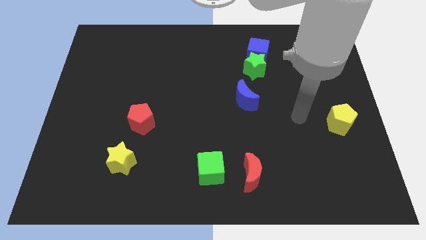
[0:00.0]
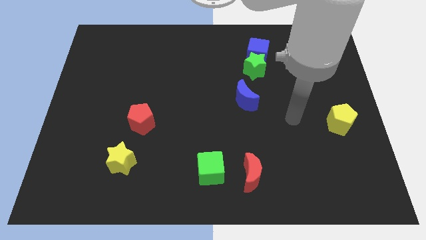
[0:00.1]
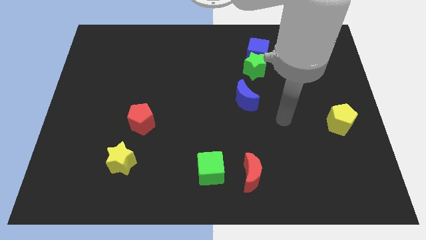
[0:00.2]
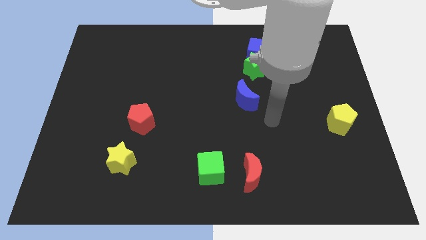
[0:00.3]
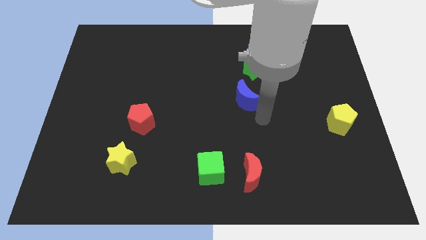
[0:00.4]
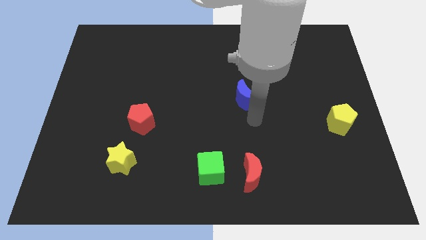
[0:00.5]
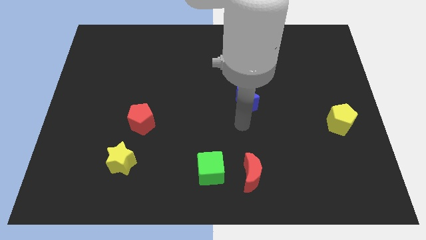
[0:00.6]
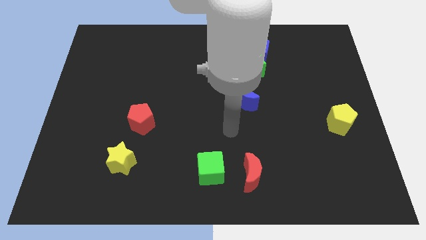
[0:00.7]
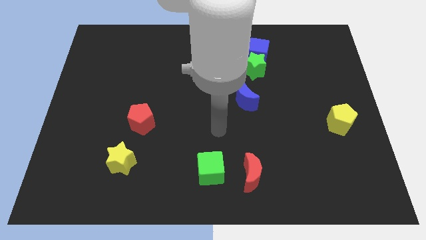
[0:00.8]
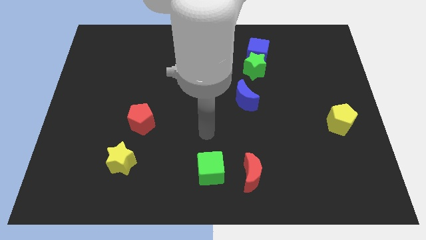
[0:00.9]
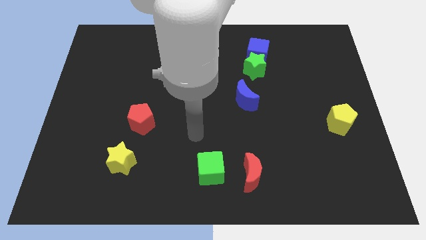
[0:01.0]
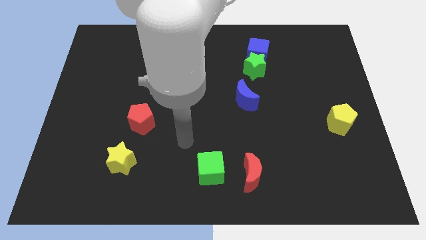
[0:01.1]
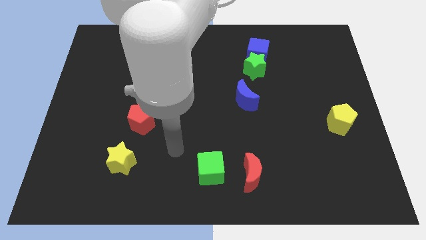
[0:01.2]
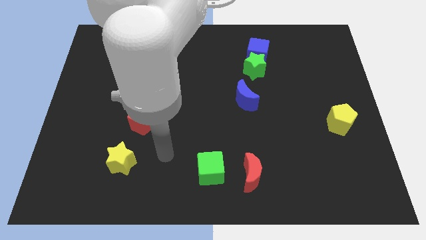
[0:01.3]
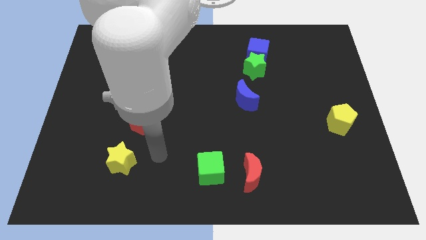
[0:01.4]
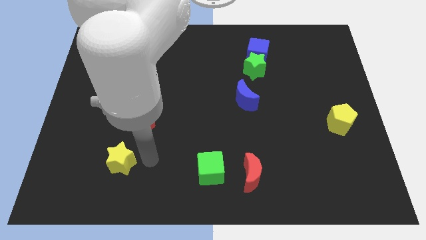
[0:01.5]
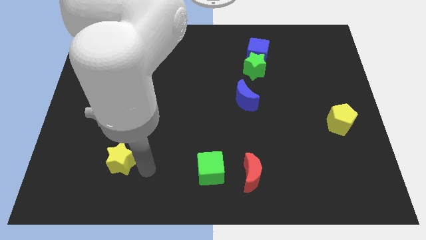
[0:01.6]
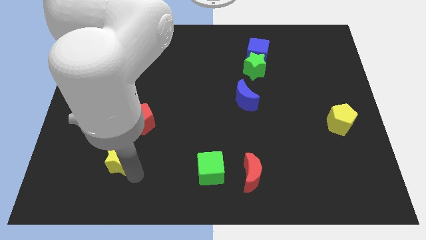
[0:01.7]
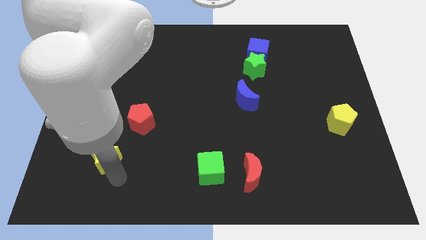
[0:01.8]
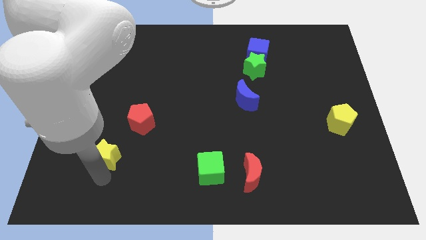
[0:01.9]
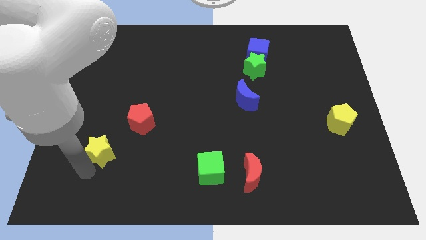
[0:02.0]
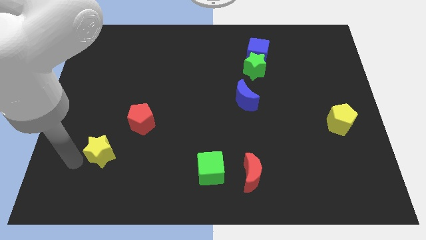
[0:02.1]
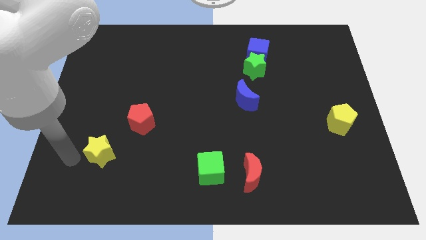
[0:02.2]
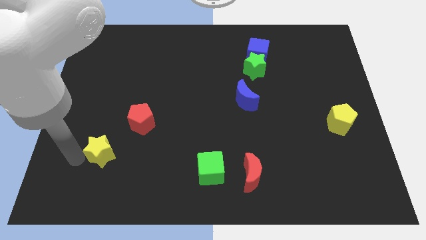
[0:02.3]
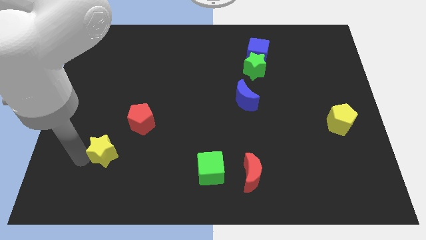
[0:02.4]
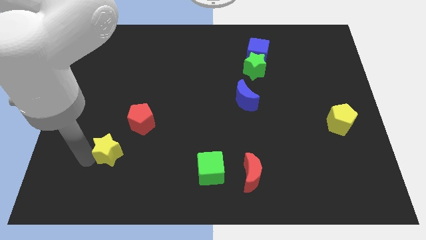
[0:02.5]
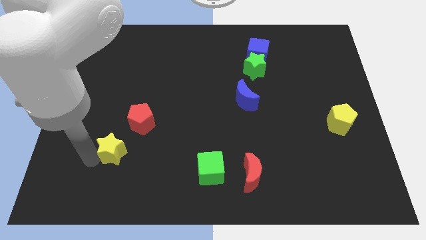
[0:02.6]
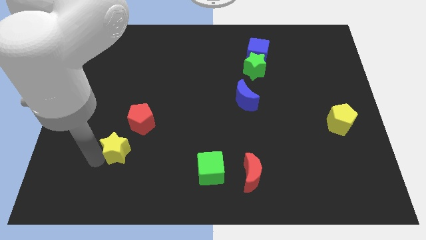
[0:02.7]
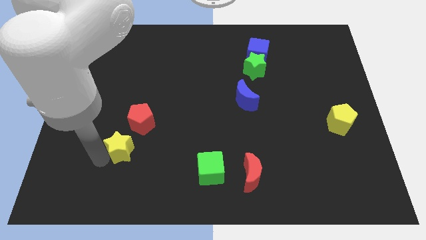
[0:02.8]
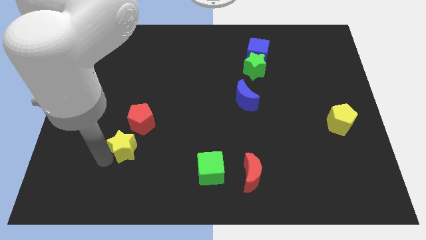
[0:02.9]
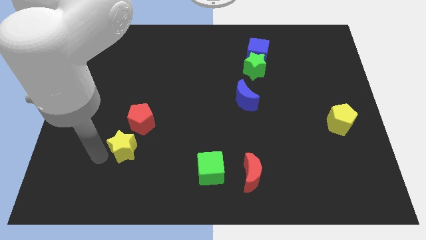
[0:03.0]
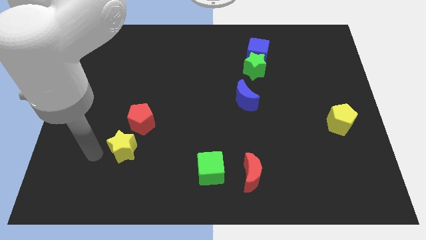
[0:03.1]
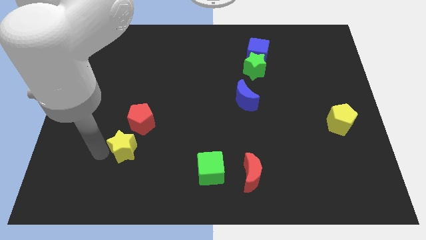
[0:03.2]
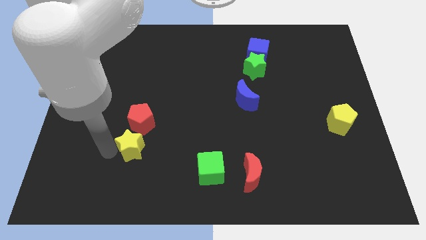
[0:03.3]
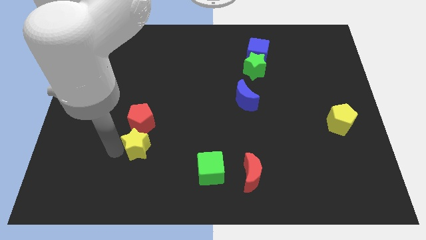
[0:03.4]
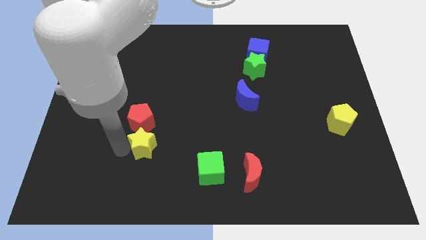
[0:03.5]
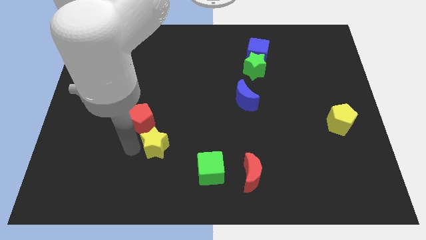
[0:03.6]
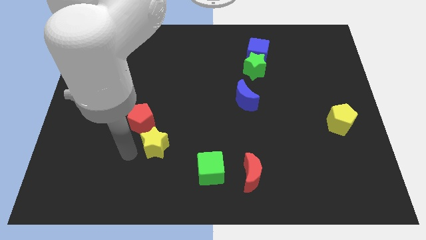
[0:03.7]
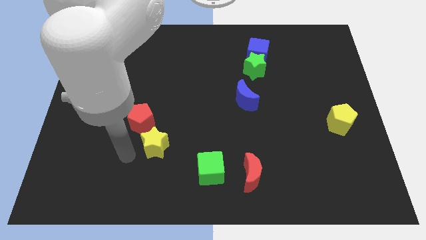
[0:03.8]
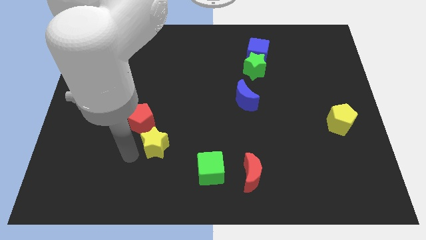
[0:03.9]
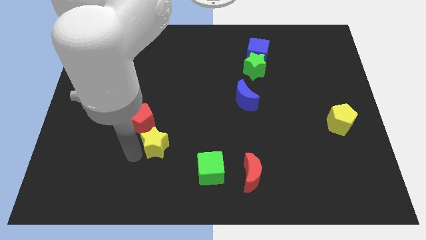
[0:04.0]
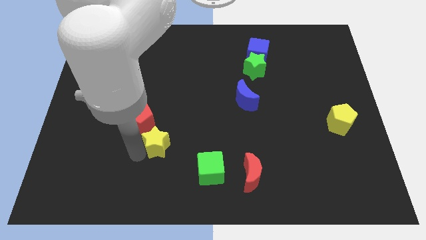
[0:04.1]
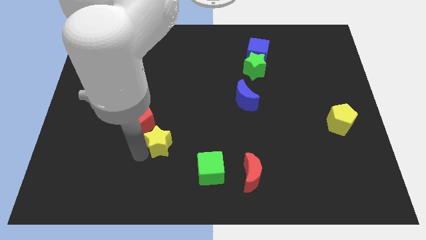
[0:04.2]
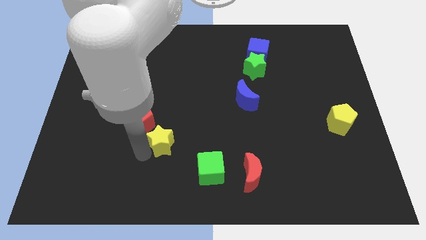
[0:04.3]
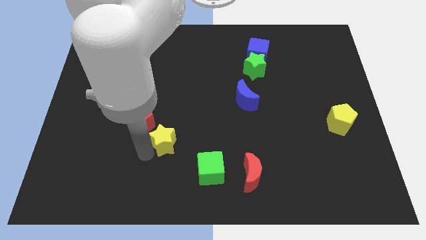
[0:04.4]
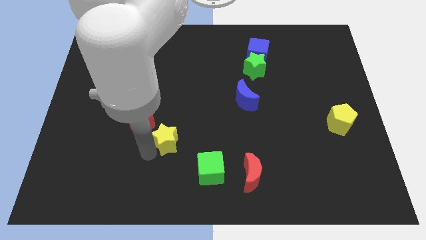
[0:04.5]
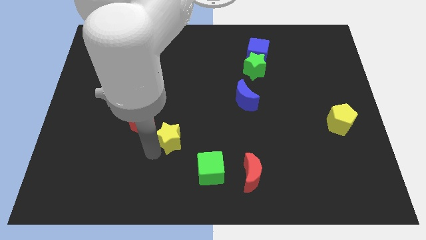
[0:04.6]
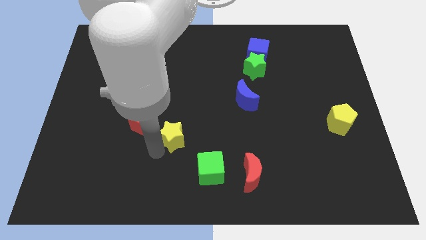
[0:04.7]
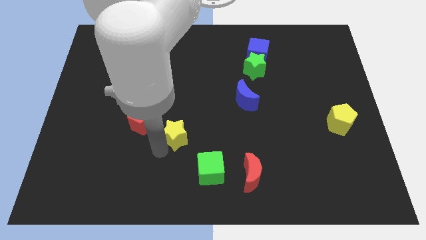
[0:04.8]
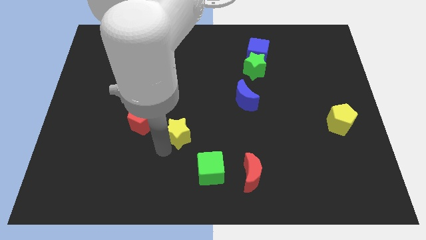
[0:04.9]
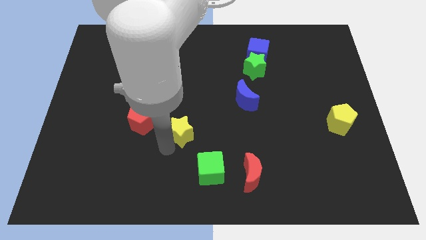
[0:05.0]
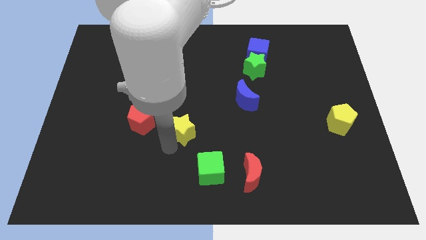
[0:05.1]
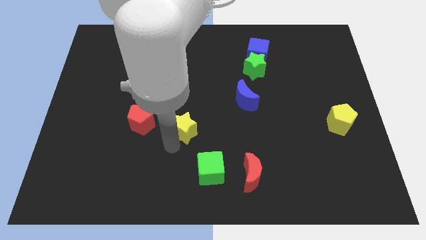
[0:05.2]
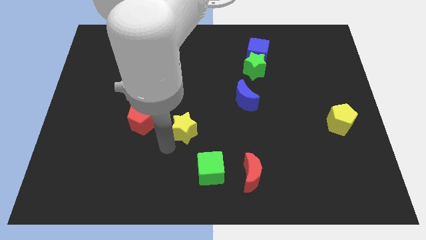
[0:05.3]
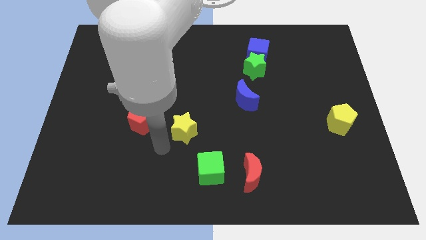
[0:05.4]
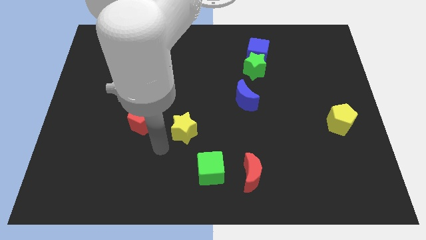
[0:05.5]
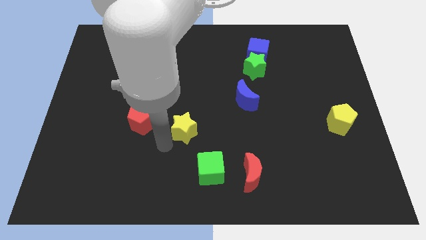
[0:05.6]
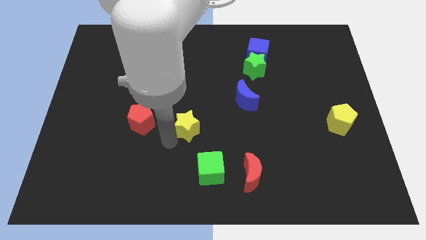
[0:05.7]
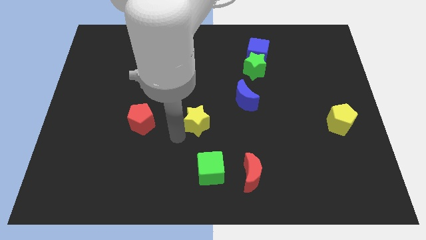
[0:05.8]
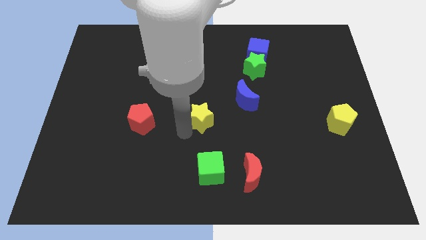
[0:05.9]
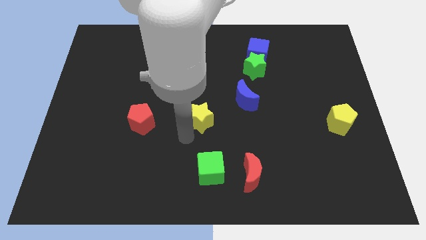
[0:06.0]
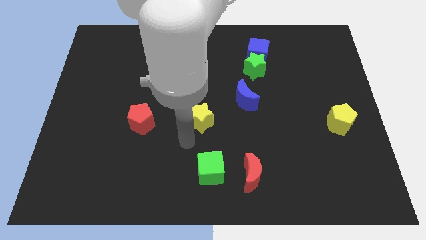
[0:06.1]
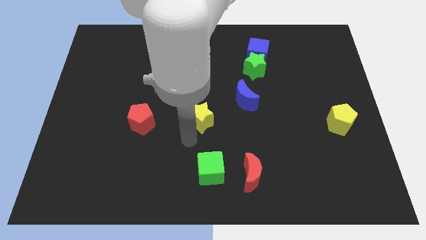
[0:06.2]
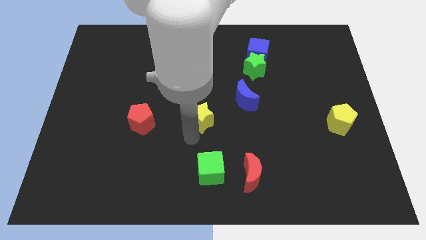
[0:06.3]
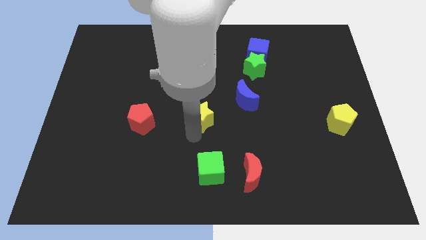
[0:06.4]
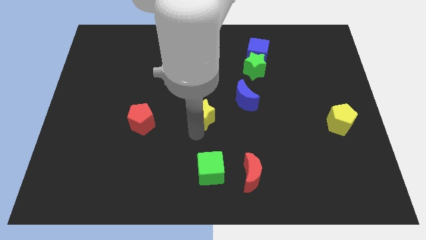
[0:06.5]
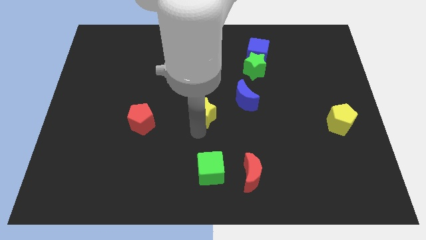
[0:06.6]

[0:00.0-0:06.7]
move the yellow star up and to the right diagonally

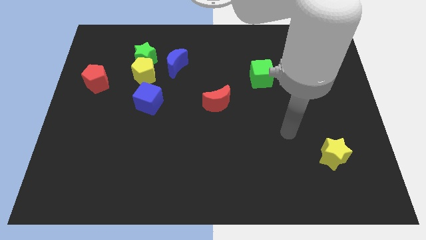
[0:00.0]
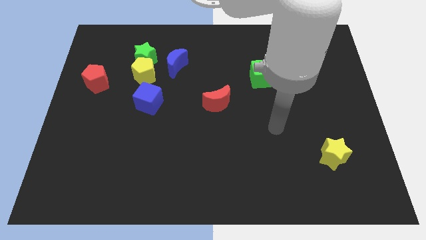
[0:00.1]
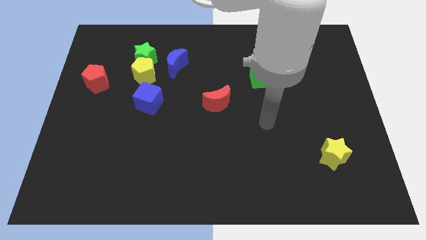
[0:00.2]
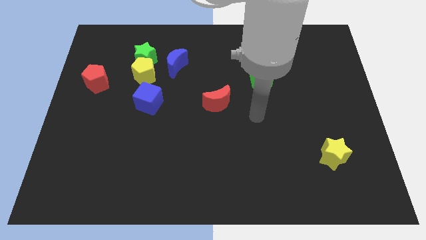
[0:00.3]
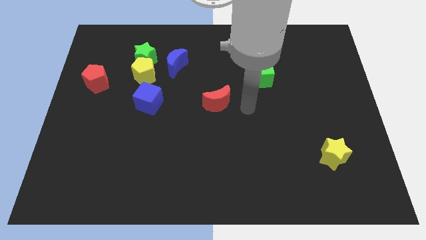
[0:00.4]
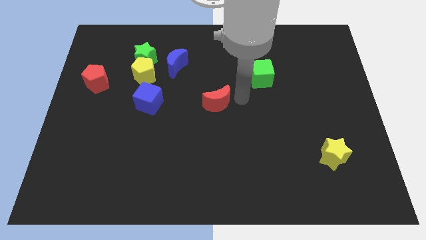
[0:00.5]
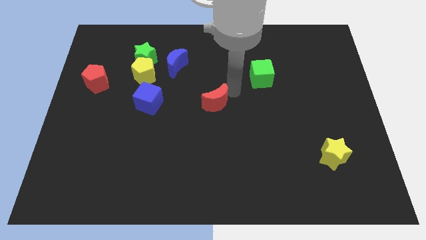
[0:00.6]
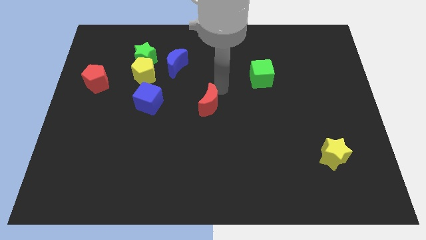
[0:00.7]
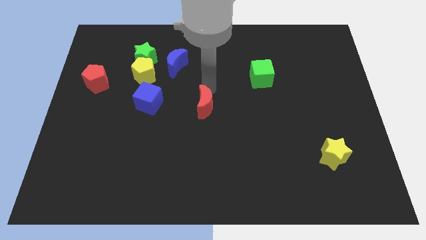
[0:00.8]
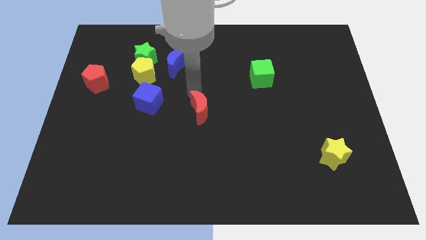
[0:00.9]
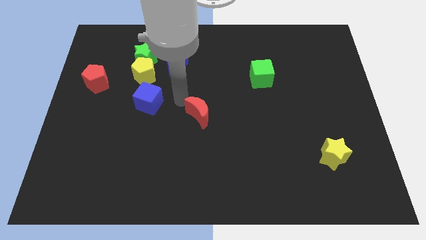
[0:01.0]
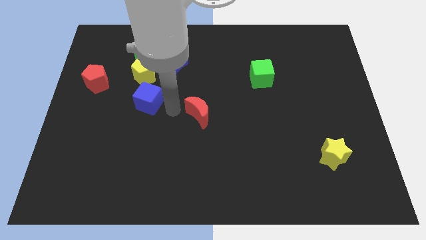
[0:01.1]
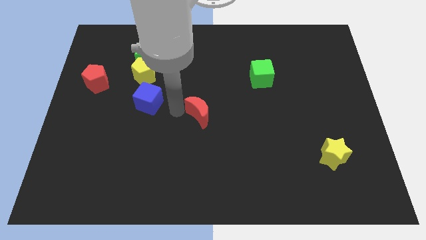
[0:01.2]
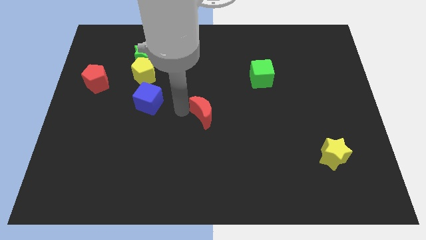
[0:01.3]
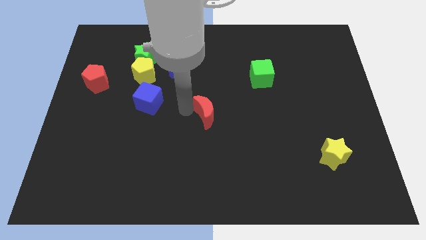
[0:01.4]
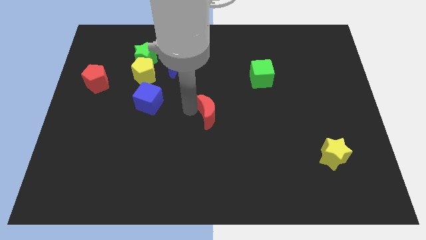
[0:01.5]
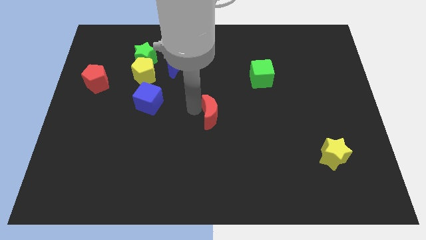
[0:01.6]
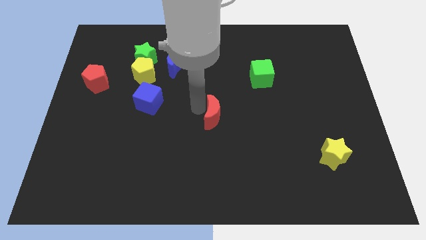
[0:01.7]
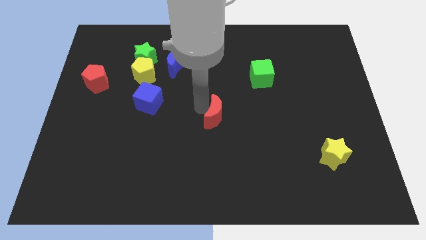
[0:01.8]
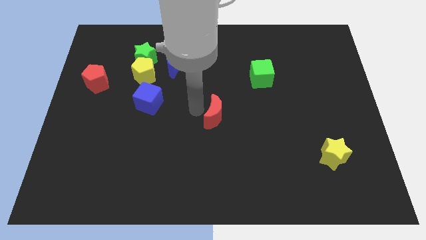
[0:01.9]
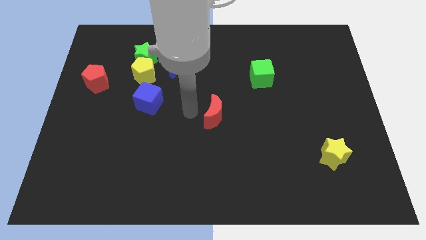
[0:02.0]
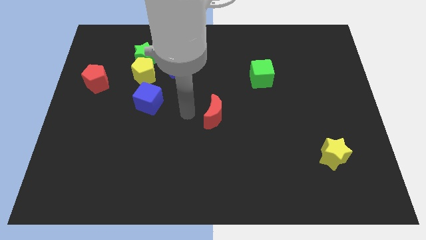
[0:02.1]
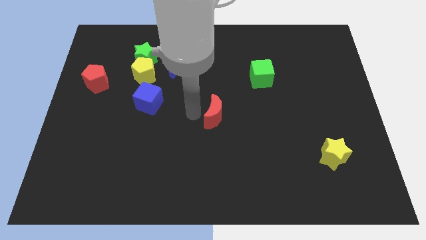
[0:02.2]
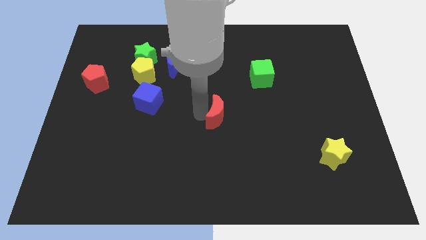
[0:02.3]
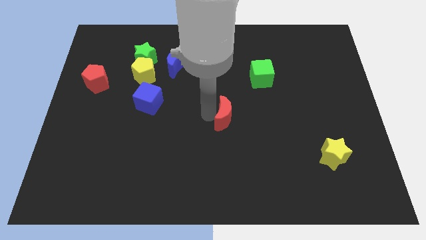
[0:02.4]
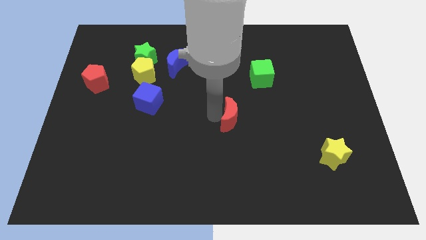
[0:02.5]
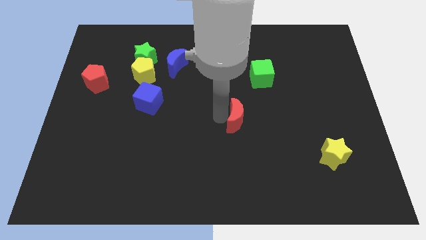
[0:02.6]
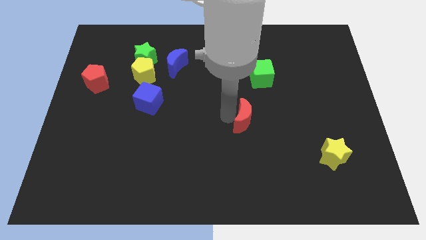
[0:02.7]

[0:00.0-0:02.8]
move the red moon a little bit down and to the right diagonally
